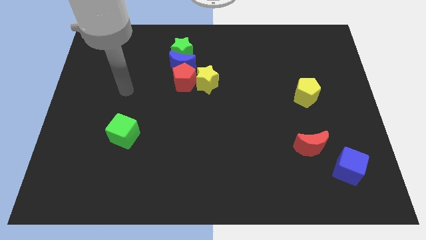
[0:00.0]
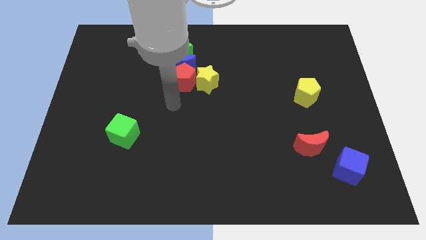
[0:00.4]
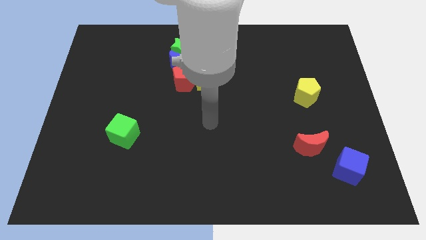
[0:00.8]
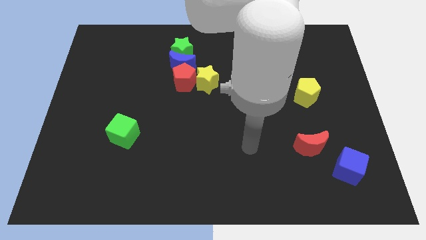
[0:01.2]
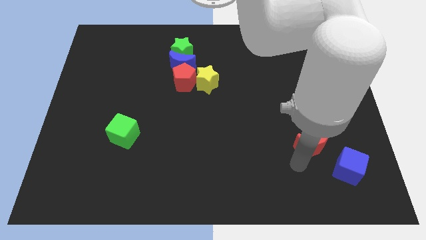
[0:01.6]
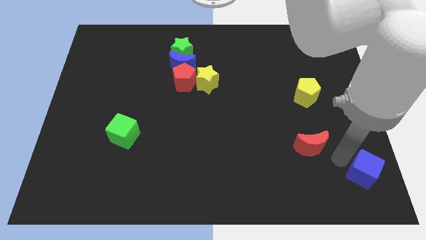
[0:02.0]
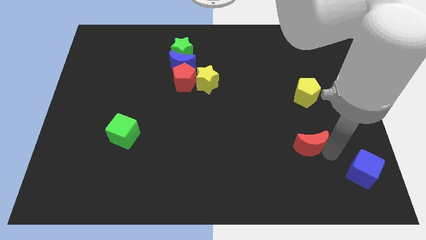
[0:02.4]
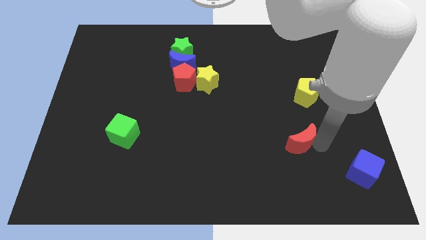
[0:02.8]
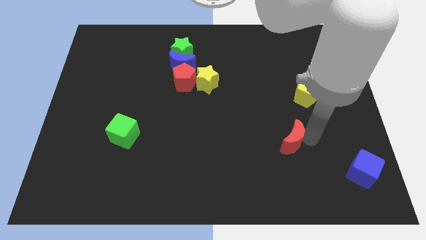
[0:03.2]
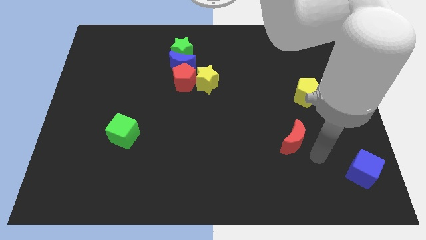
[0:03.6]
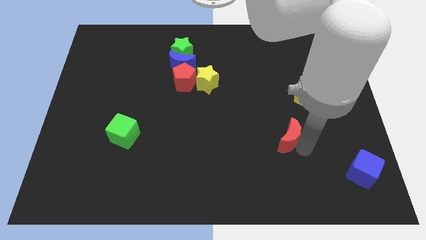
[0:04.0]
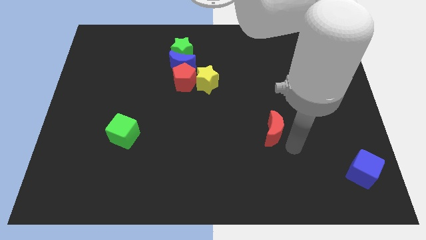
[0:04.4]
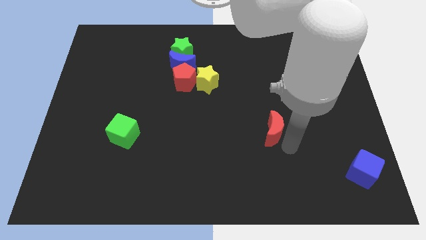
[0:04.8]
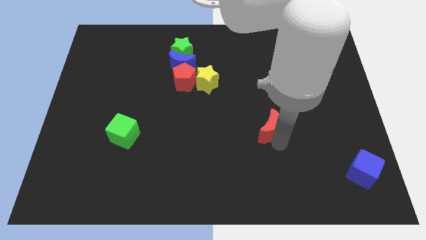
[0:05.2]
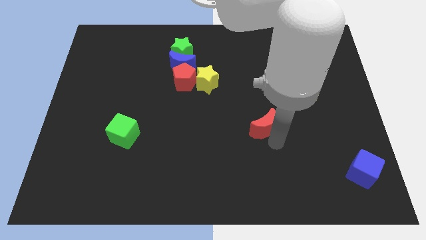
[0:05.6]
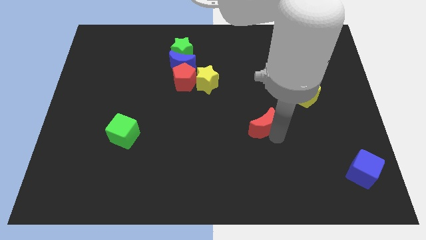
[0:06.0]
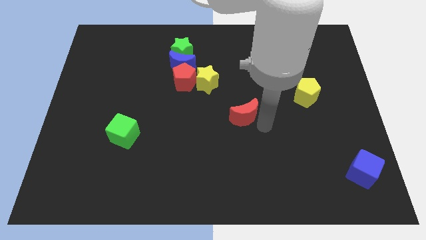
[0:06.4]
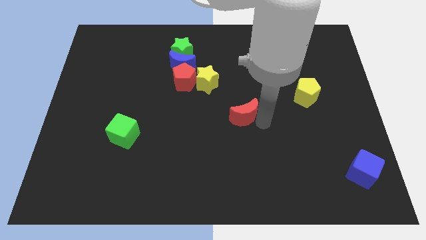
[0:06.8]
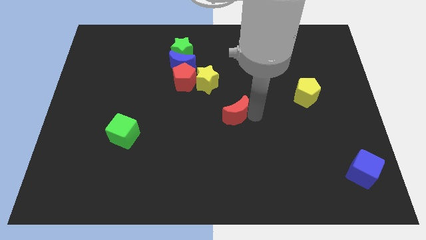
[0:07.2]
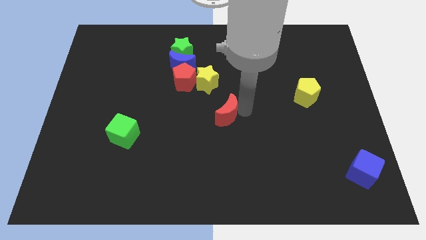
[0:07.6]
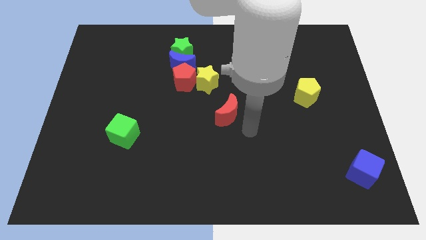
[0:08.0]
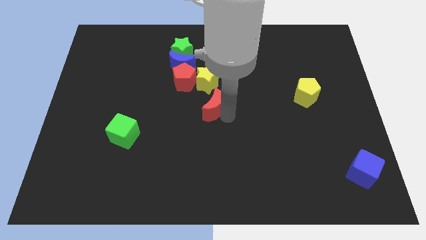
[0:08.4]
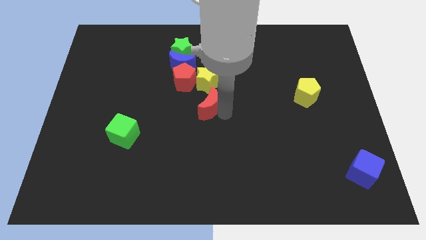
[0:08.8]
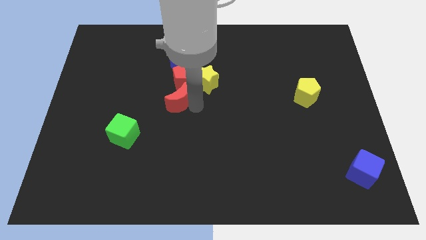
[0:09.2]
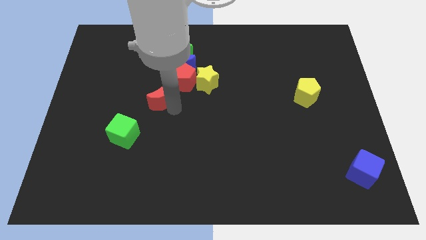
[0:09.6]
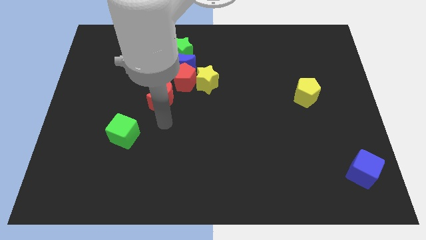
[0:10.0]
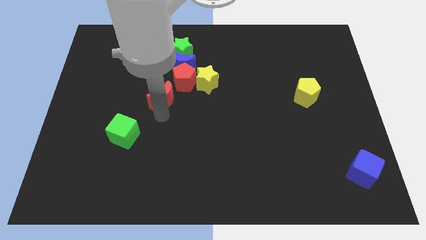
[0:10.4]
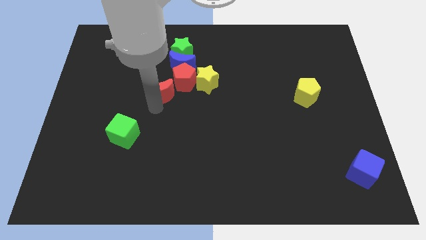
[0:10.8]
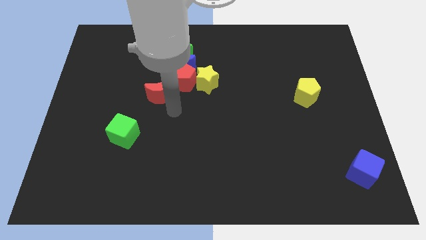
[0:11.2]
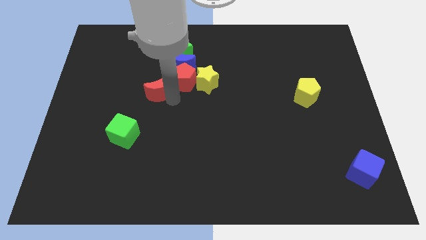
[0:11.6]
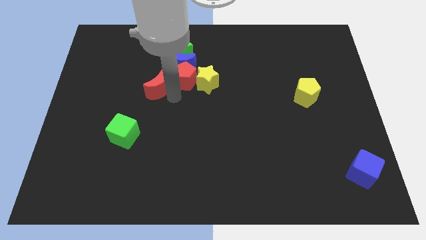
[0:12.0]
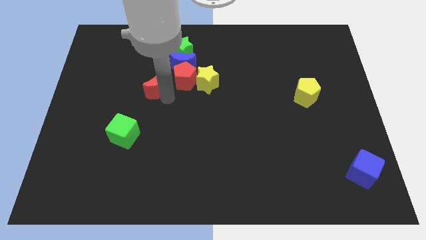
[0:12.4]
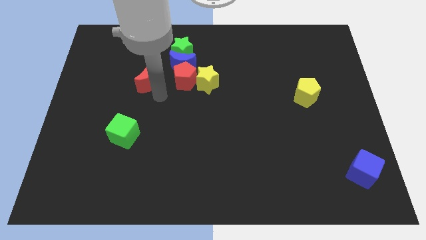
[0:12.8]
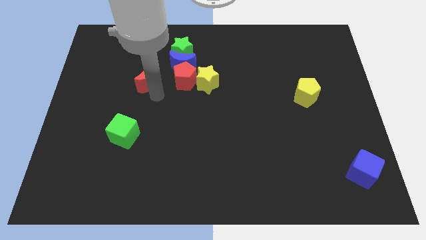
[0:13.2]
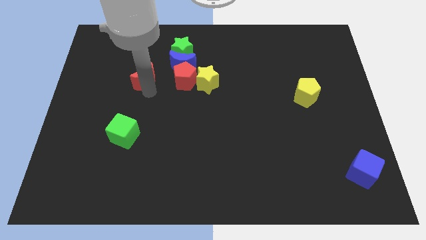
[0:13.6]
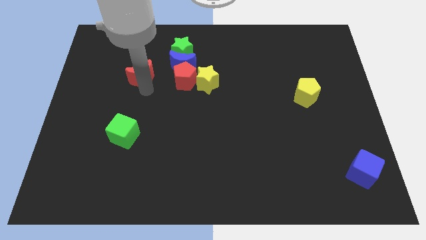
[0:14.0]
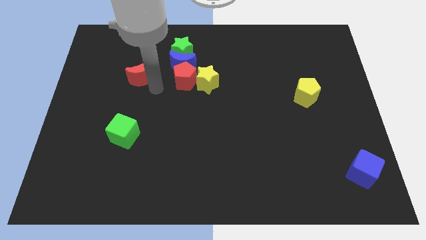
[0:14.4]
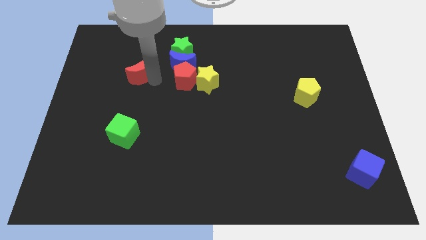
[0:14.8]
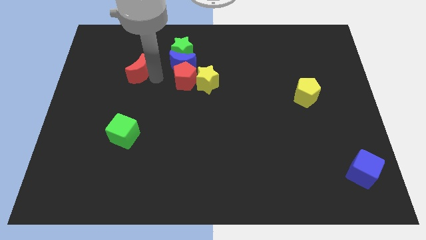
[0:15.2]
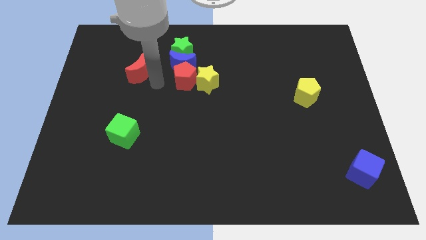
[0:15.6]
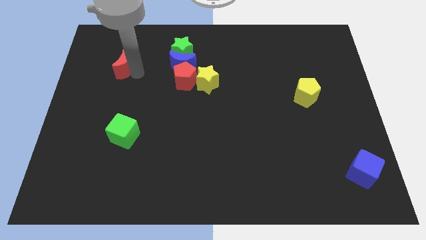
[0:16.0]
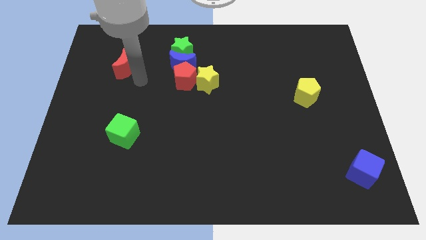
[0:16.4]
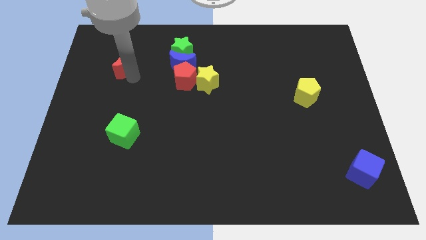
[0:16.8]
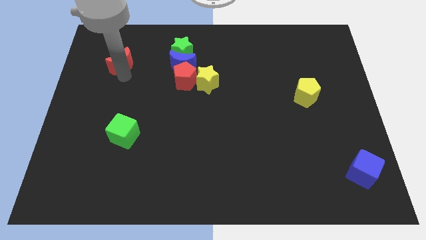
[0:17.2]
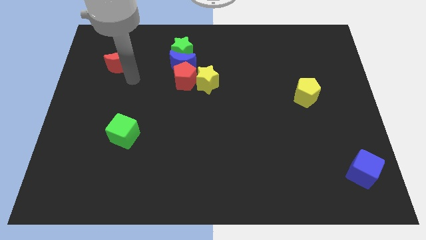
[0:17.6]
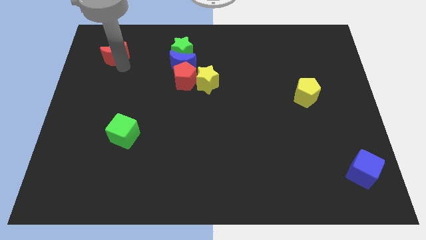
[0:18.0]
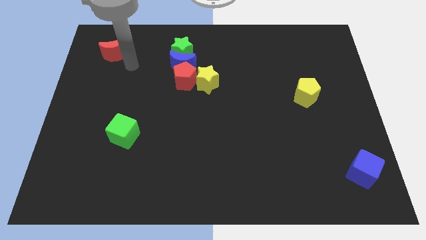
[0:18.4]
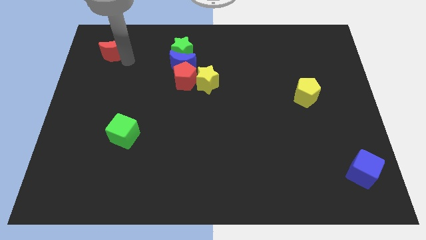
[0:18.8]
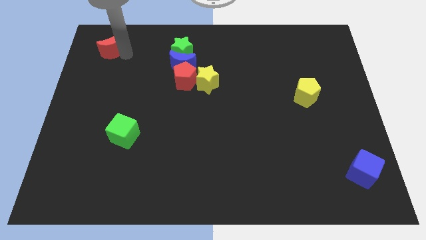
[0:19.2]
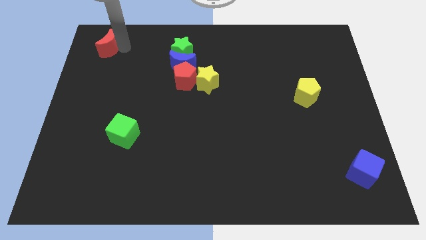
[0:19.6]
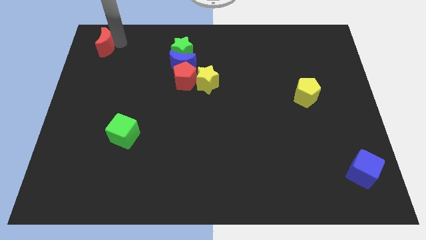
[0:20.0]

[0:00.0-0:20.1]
slide the red moon to the top left of the board
